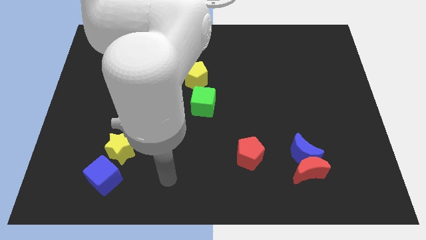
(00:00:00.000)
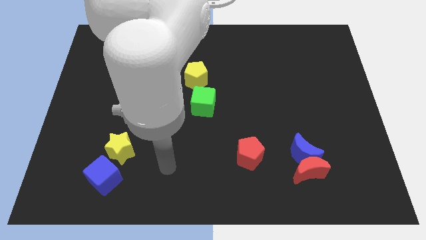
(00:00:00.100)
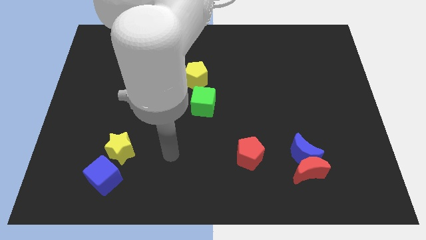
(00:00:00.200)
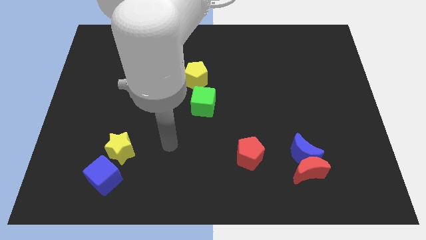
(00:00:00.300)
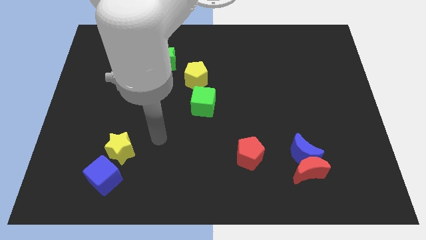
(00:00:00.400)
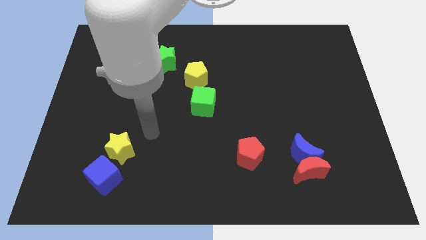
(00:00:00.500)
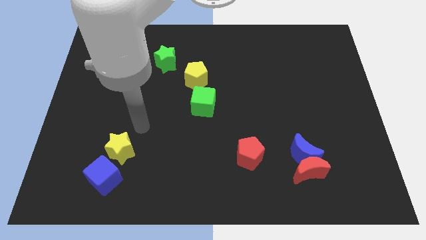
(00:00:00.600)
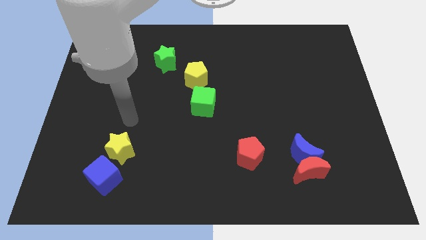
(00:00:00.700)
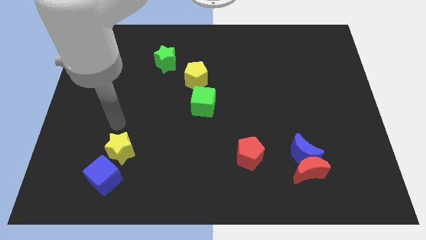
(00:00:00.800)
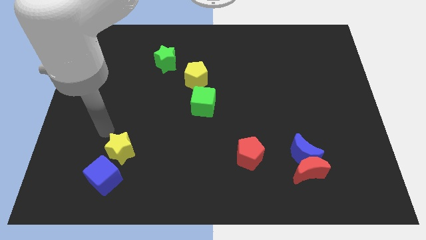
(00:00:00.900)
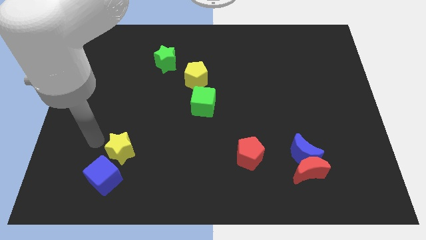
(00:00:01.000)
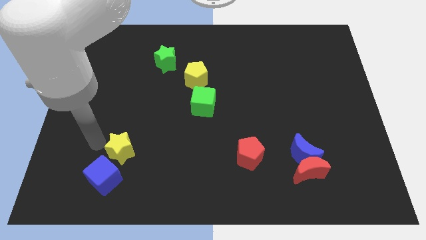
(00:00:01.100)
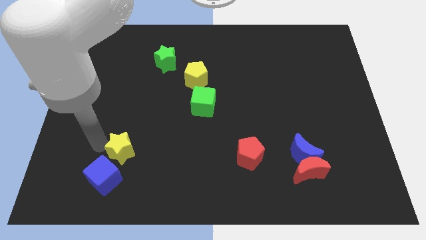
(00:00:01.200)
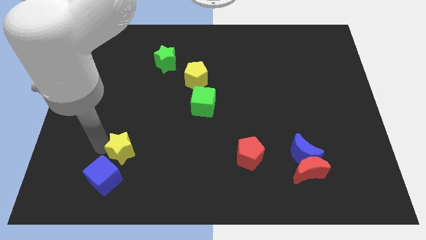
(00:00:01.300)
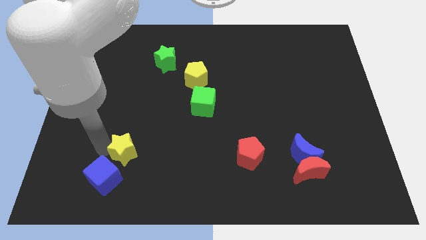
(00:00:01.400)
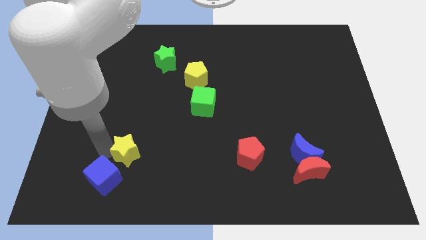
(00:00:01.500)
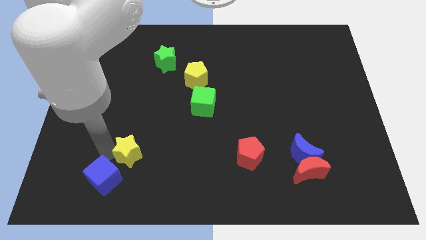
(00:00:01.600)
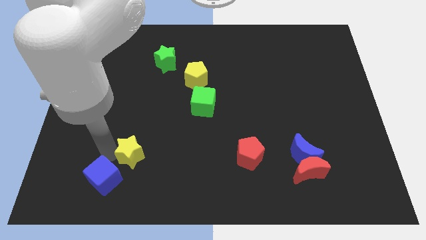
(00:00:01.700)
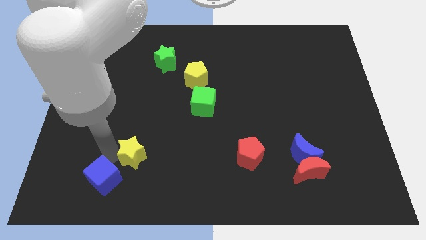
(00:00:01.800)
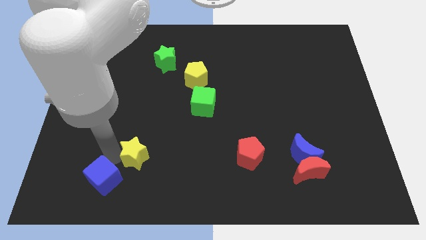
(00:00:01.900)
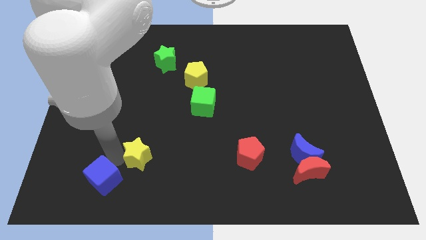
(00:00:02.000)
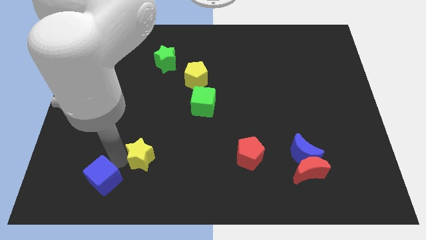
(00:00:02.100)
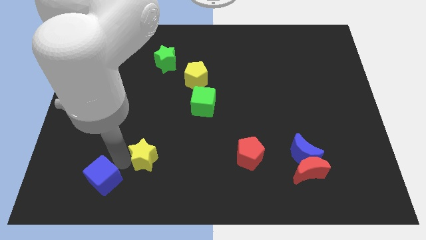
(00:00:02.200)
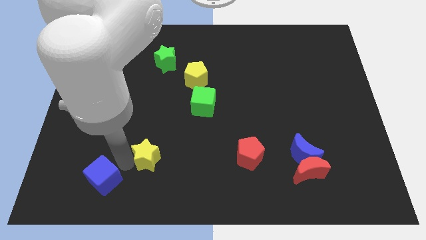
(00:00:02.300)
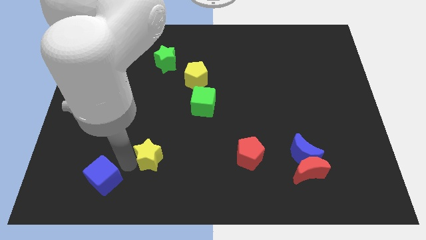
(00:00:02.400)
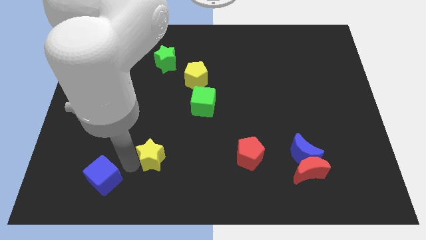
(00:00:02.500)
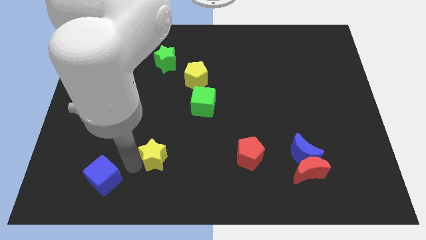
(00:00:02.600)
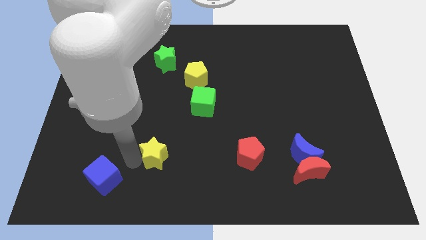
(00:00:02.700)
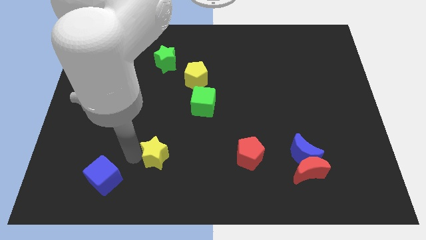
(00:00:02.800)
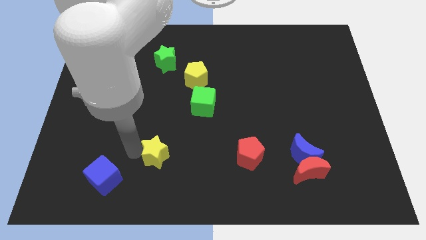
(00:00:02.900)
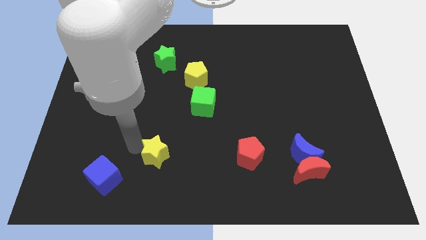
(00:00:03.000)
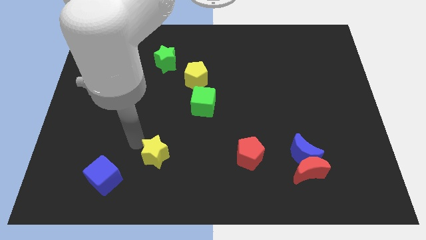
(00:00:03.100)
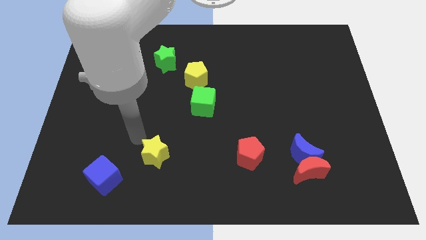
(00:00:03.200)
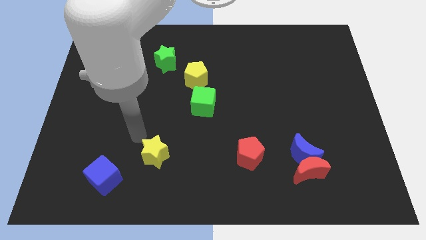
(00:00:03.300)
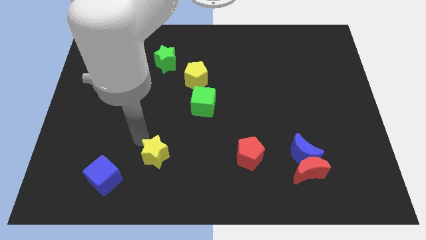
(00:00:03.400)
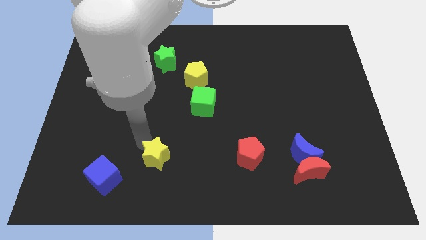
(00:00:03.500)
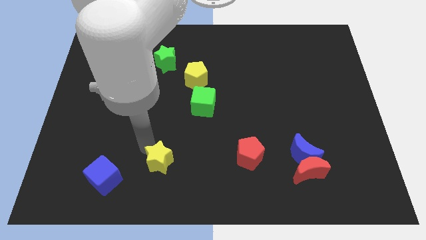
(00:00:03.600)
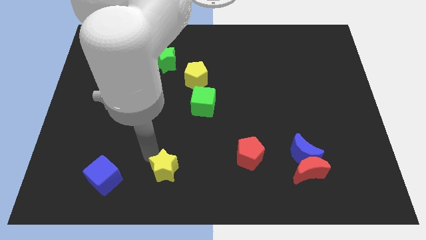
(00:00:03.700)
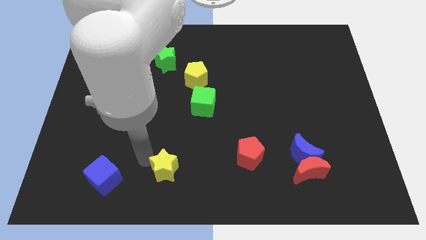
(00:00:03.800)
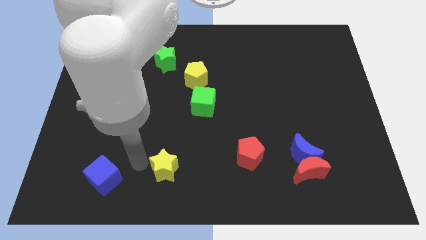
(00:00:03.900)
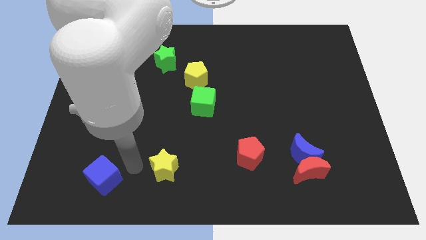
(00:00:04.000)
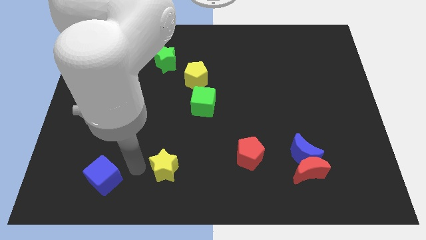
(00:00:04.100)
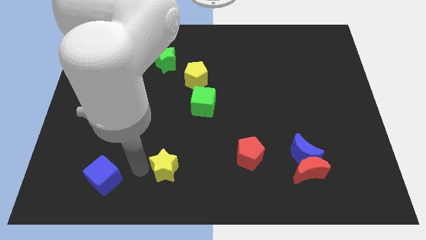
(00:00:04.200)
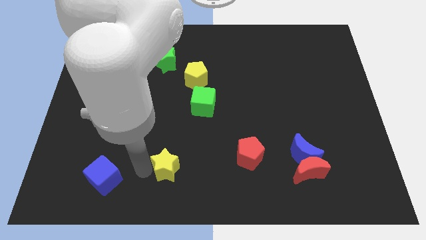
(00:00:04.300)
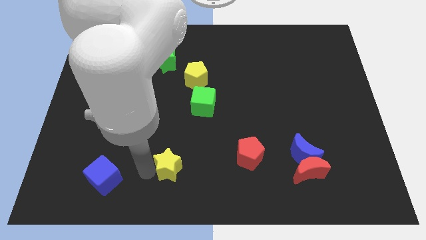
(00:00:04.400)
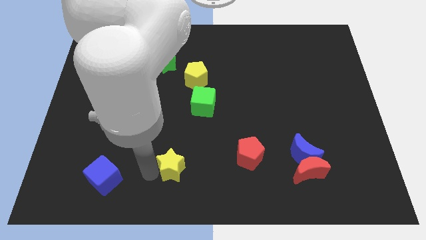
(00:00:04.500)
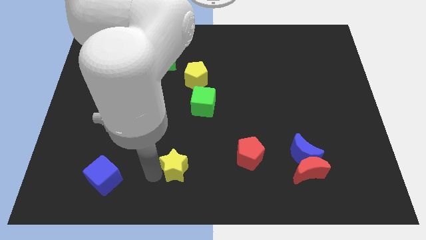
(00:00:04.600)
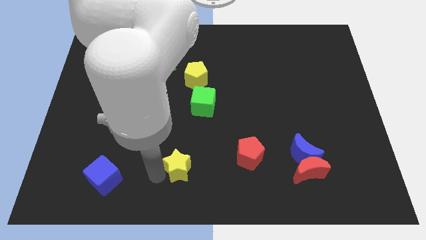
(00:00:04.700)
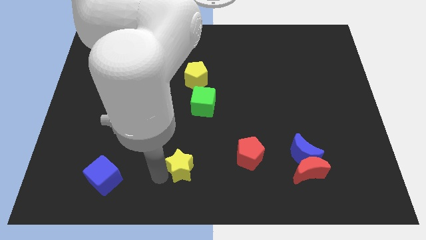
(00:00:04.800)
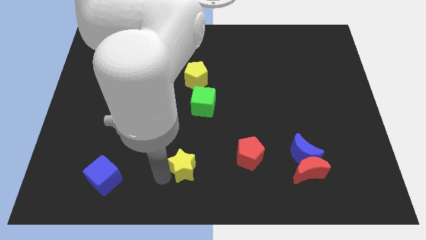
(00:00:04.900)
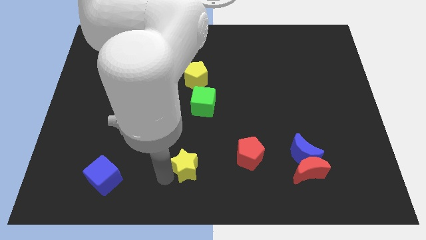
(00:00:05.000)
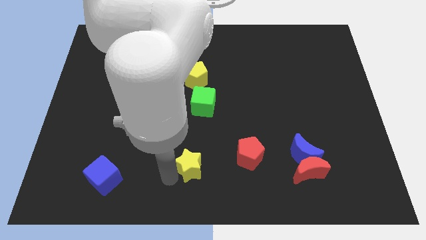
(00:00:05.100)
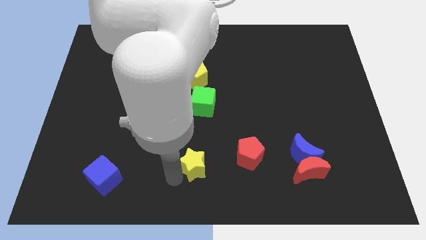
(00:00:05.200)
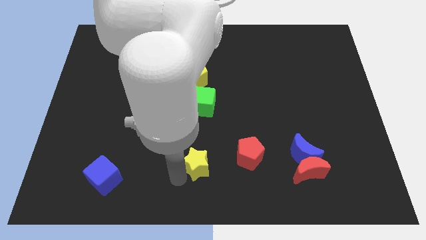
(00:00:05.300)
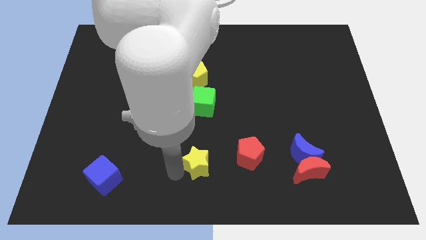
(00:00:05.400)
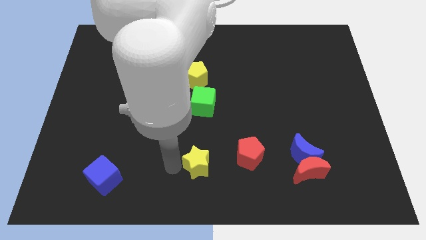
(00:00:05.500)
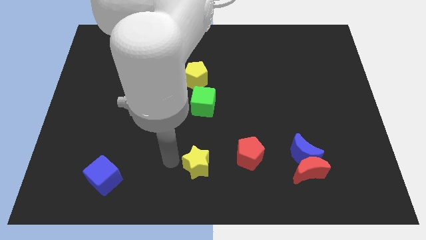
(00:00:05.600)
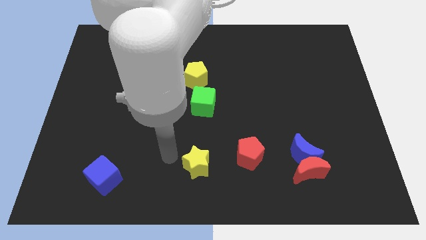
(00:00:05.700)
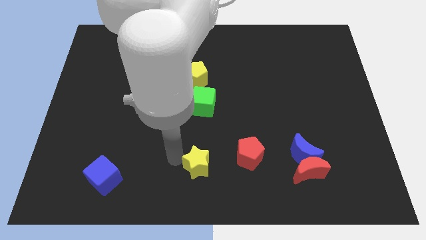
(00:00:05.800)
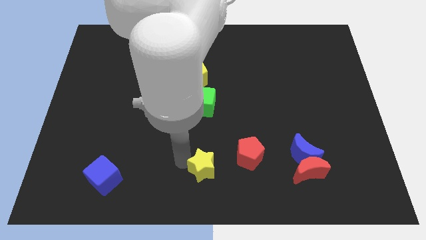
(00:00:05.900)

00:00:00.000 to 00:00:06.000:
move the yellow star to the bottom left of the red pentagon

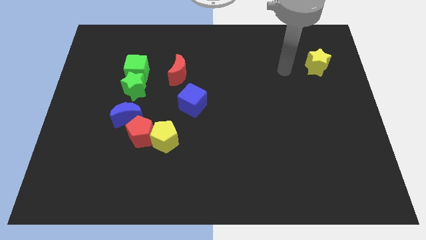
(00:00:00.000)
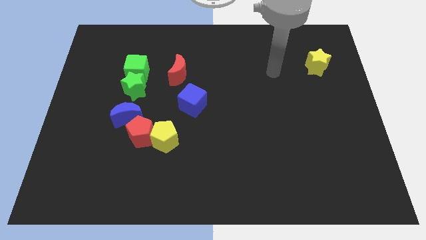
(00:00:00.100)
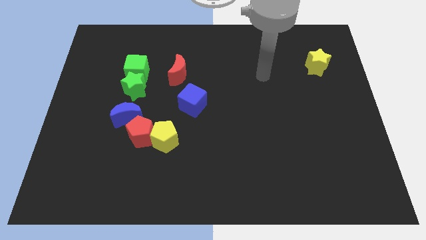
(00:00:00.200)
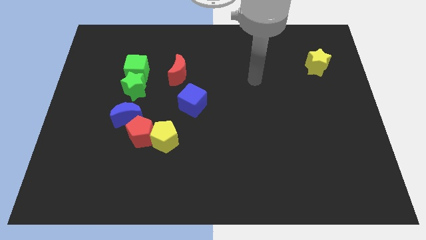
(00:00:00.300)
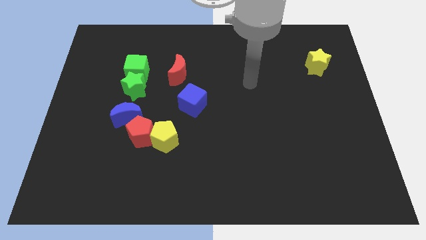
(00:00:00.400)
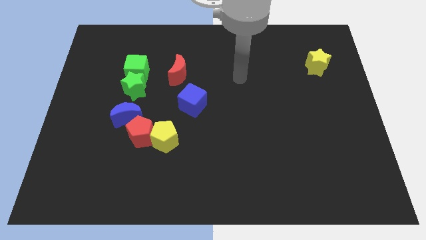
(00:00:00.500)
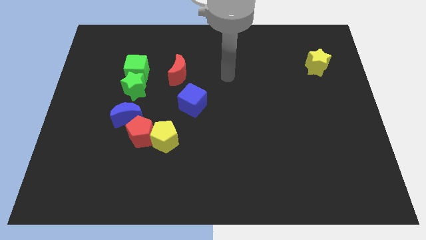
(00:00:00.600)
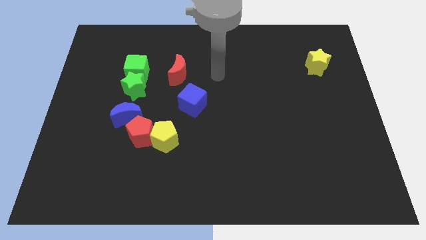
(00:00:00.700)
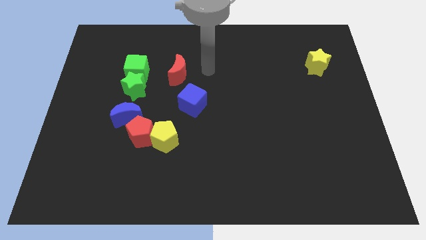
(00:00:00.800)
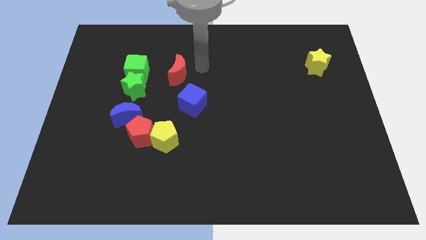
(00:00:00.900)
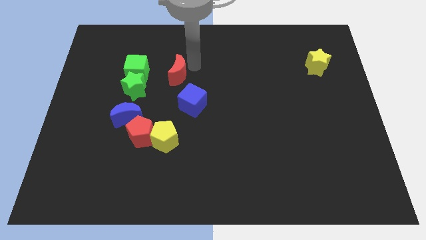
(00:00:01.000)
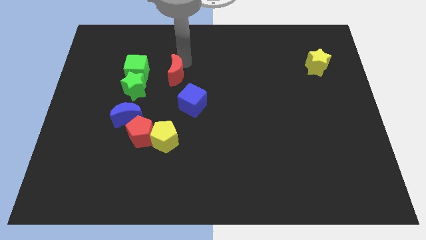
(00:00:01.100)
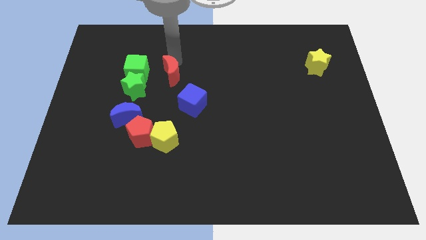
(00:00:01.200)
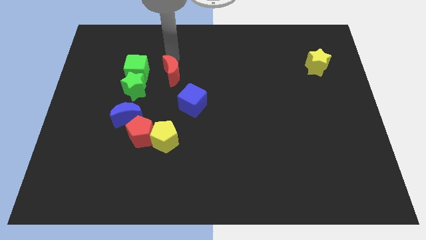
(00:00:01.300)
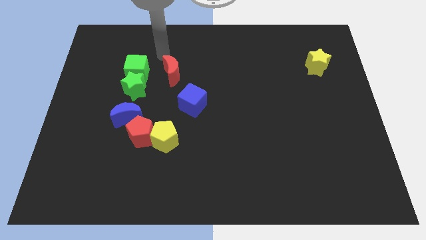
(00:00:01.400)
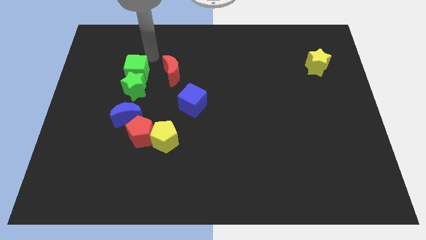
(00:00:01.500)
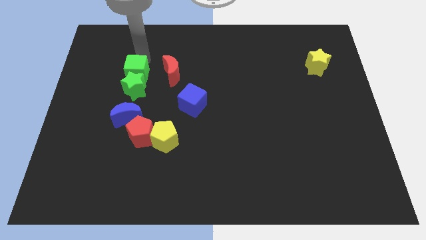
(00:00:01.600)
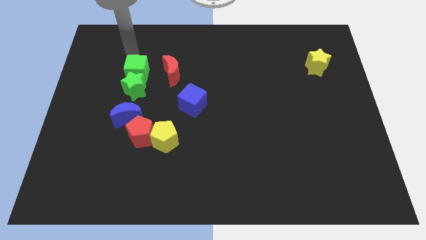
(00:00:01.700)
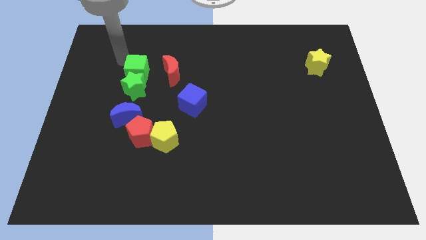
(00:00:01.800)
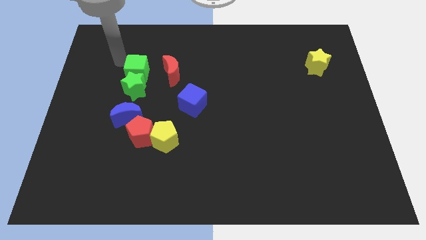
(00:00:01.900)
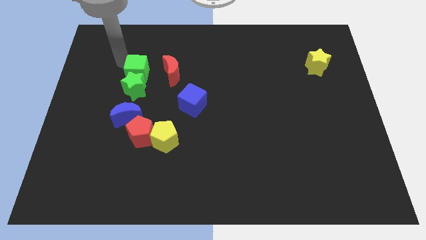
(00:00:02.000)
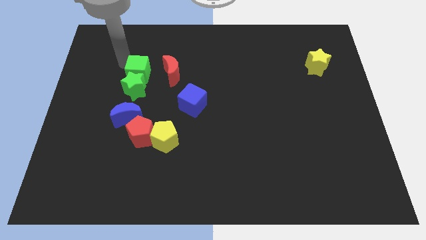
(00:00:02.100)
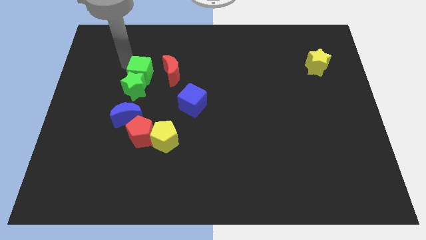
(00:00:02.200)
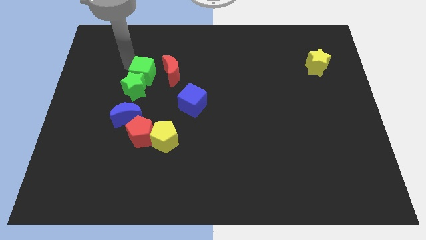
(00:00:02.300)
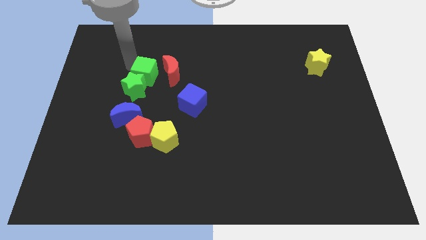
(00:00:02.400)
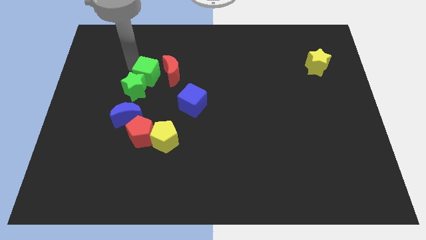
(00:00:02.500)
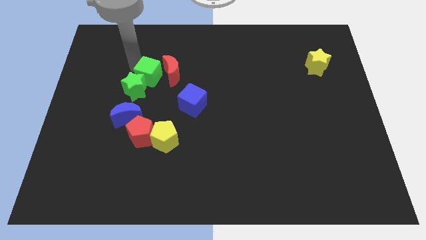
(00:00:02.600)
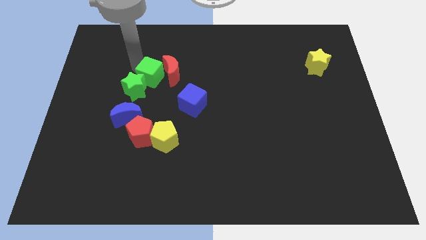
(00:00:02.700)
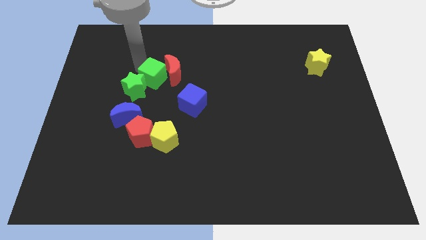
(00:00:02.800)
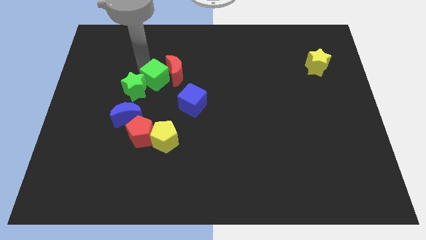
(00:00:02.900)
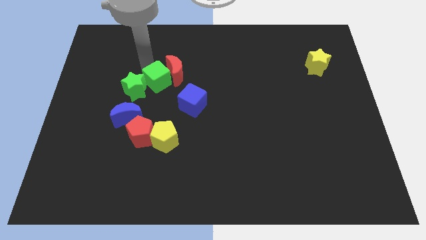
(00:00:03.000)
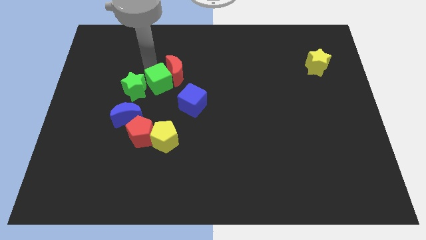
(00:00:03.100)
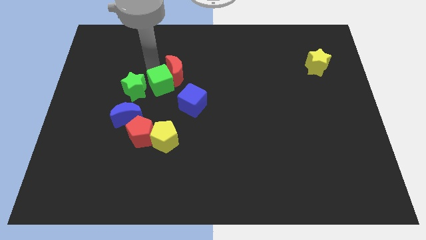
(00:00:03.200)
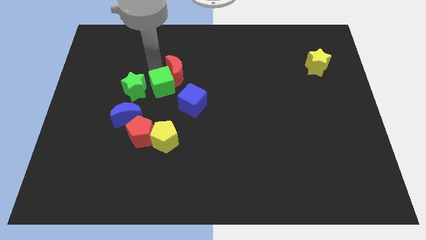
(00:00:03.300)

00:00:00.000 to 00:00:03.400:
put the green cube above the yellow pentagon
